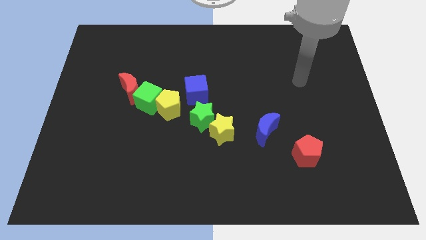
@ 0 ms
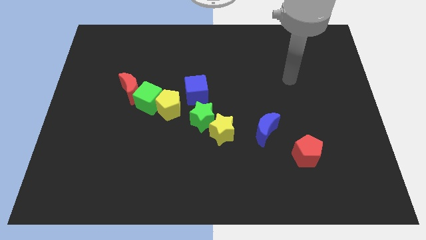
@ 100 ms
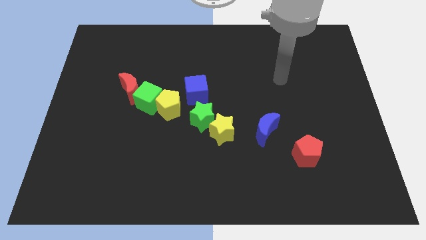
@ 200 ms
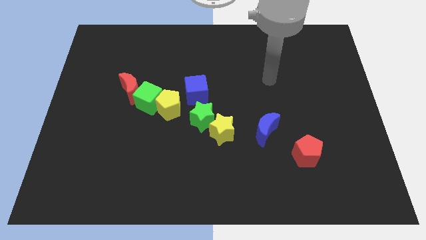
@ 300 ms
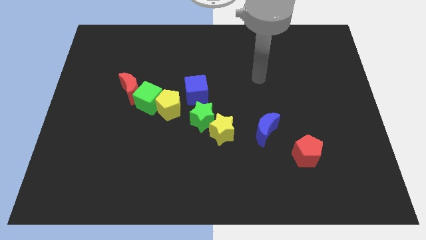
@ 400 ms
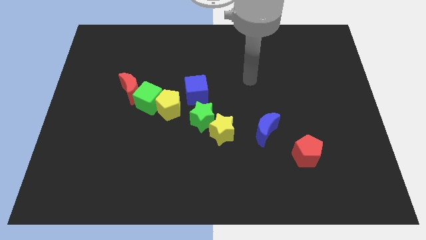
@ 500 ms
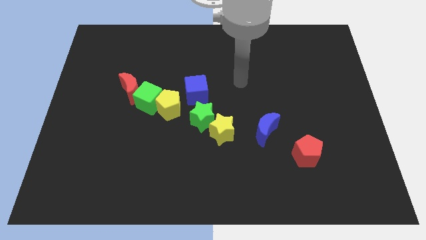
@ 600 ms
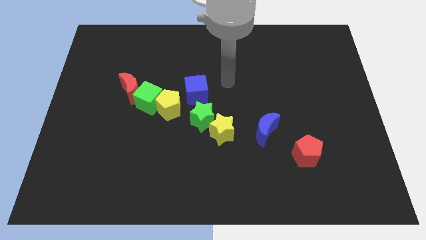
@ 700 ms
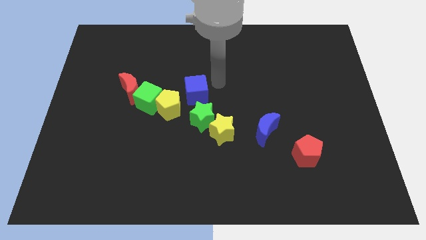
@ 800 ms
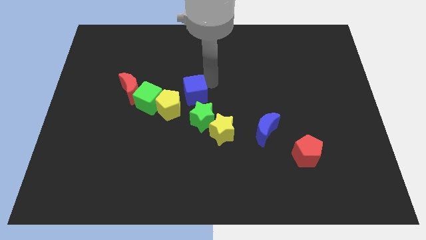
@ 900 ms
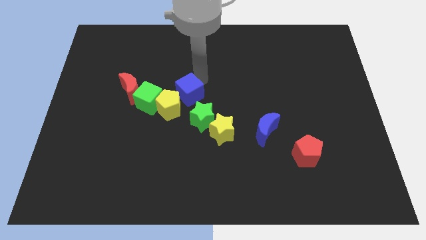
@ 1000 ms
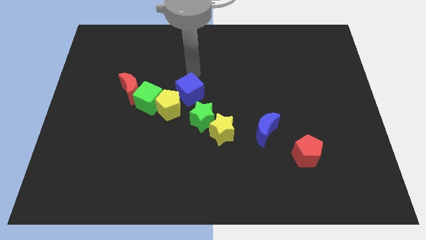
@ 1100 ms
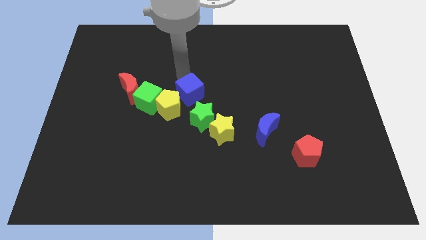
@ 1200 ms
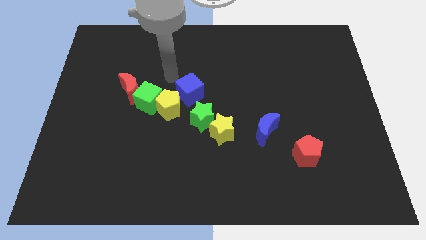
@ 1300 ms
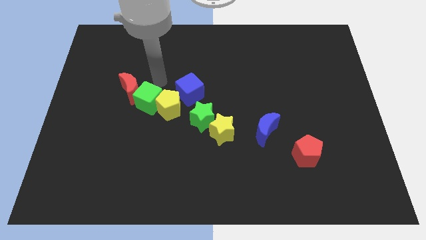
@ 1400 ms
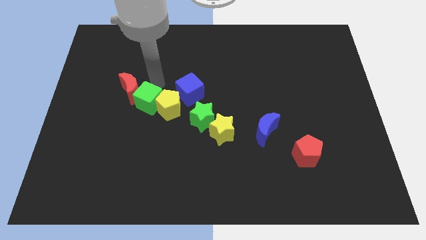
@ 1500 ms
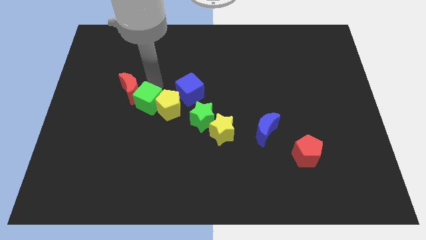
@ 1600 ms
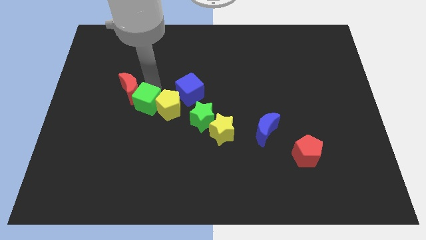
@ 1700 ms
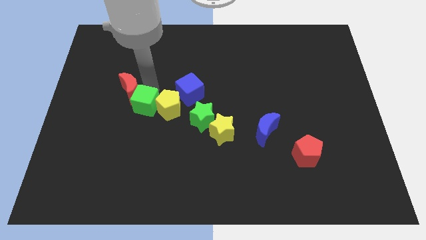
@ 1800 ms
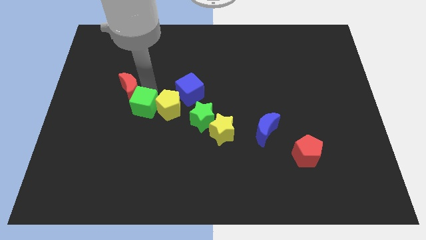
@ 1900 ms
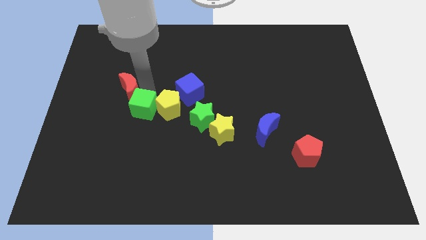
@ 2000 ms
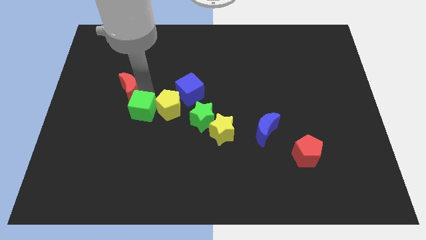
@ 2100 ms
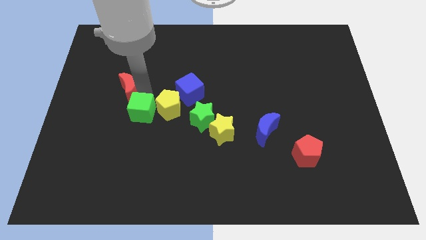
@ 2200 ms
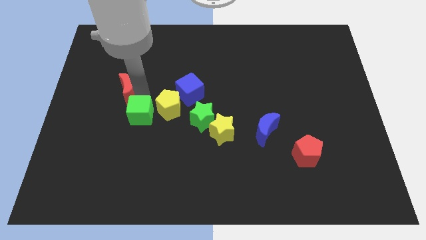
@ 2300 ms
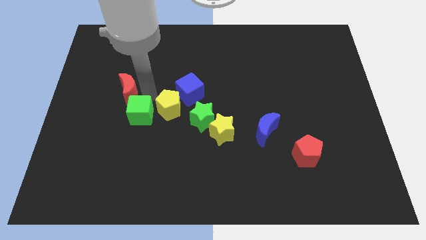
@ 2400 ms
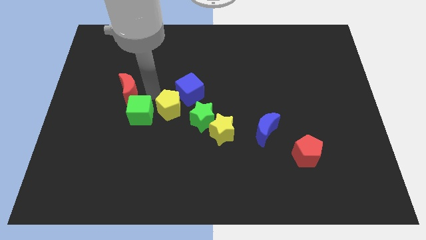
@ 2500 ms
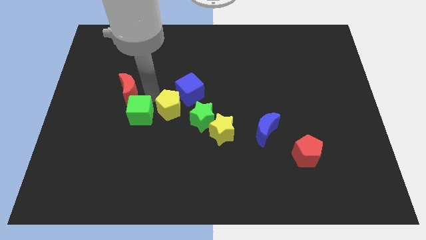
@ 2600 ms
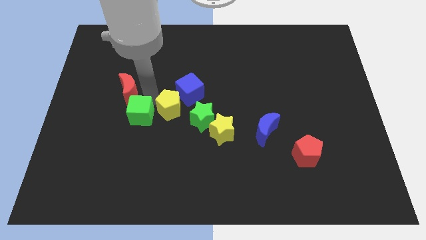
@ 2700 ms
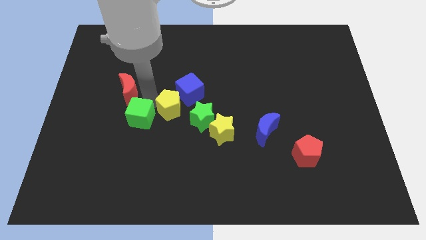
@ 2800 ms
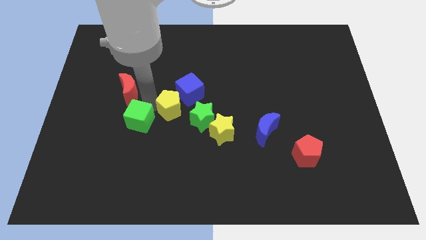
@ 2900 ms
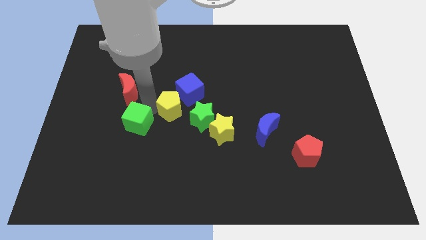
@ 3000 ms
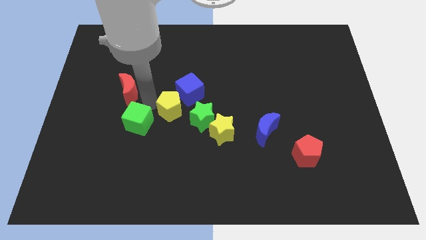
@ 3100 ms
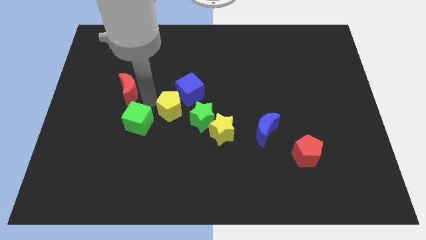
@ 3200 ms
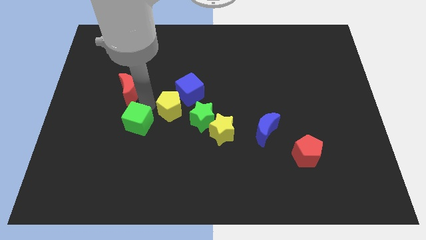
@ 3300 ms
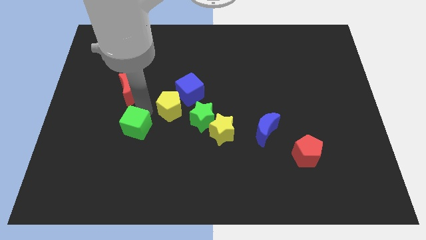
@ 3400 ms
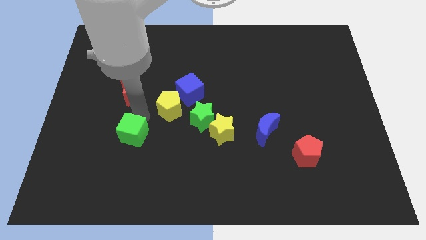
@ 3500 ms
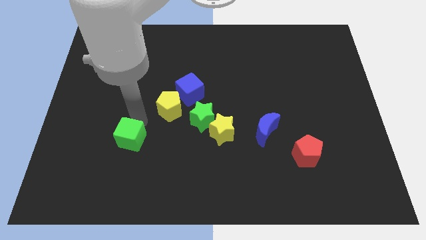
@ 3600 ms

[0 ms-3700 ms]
separate the green cube from the yellow pentagon and red moon

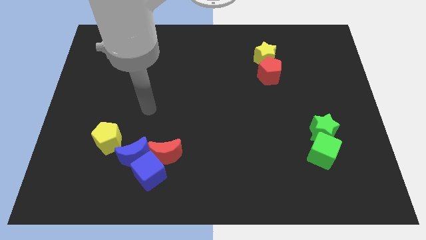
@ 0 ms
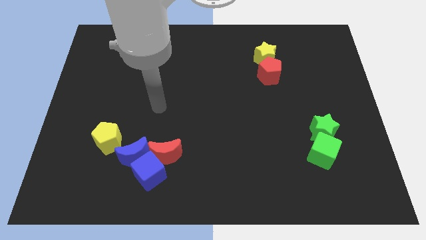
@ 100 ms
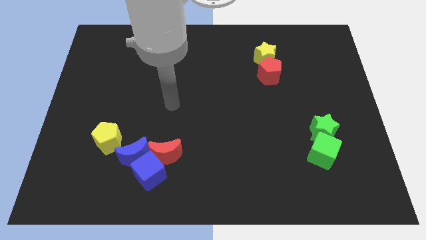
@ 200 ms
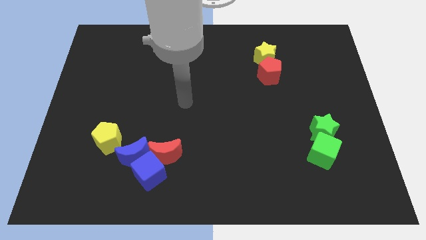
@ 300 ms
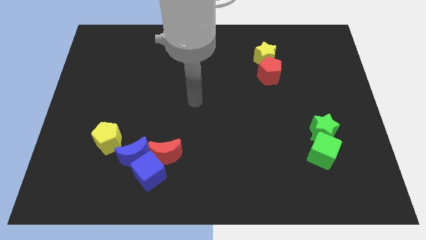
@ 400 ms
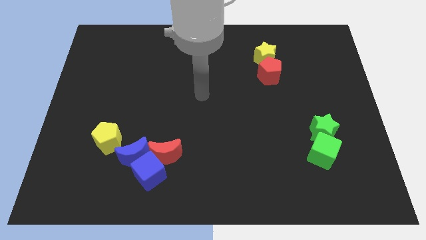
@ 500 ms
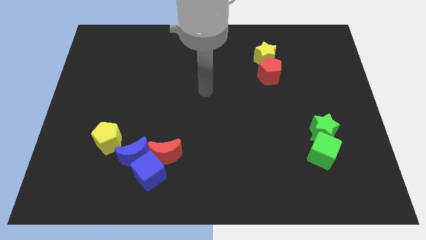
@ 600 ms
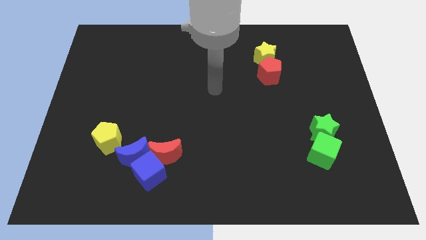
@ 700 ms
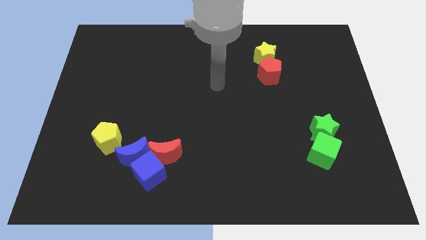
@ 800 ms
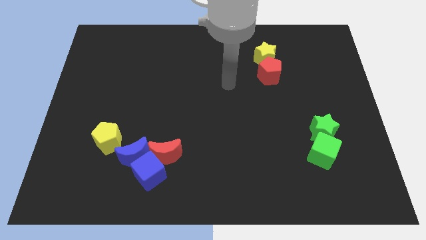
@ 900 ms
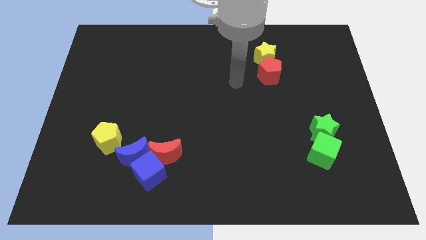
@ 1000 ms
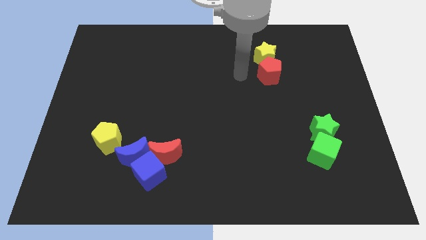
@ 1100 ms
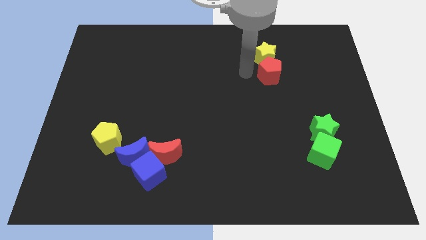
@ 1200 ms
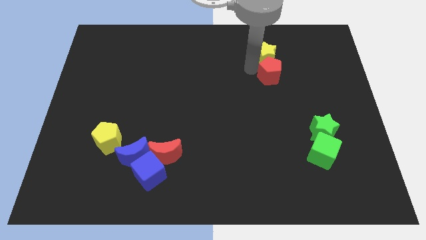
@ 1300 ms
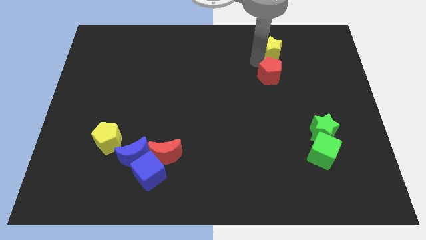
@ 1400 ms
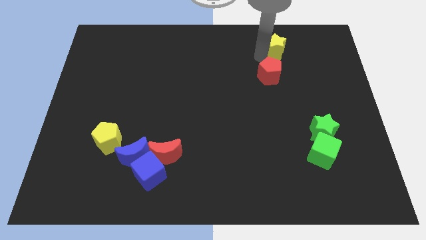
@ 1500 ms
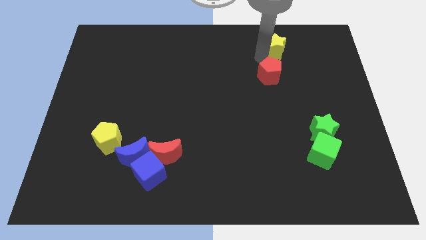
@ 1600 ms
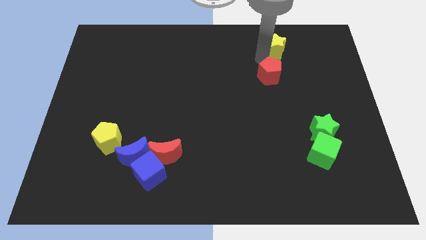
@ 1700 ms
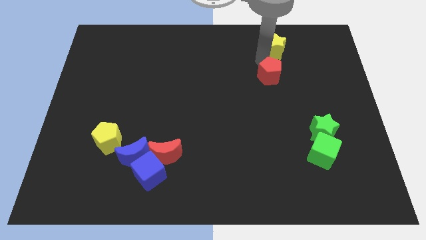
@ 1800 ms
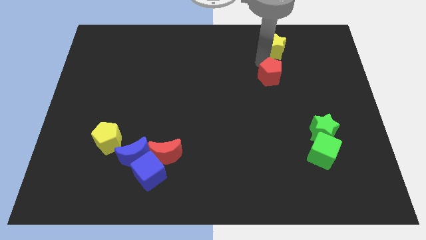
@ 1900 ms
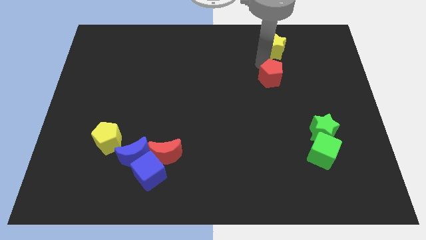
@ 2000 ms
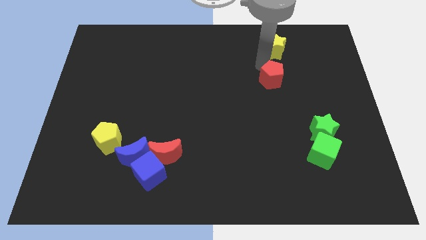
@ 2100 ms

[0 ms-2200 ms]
separate the red pentagon from the yellow star

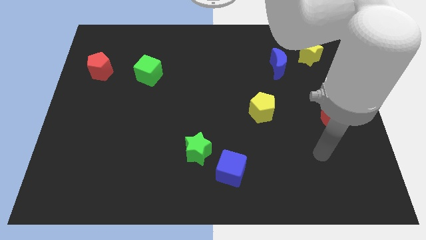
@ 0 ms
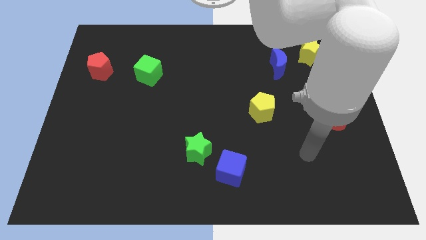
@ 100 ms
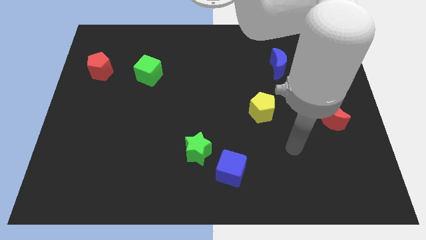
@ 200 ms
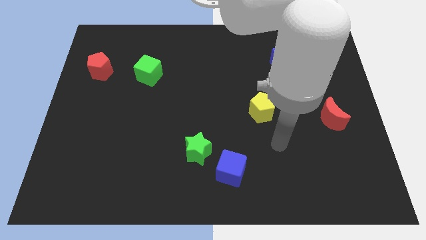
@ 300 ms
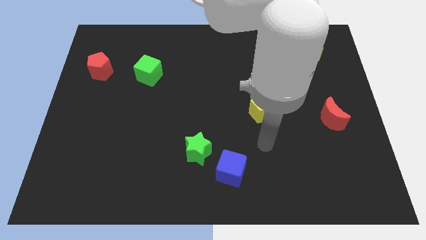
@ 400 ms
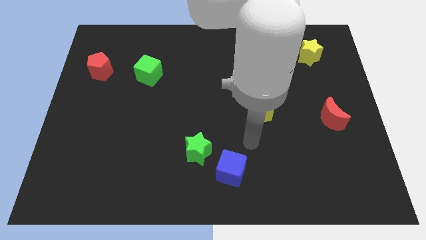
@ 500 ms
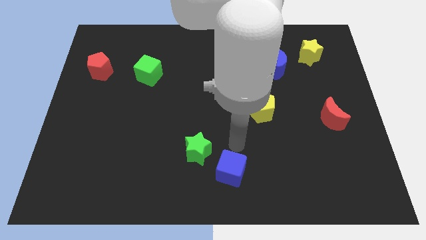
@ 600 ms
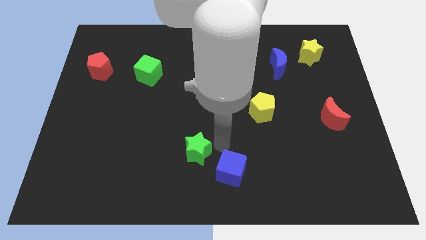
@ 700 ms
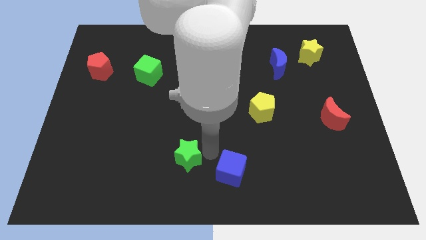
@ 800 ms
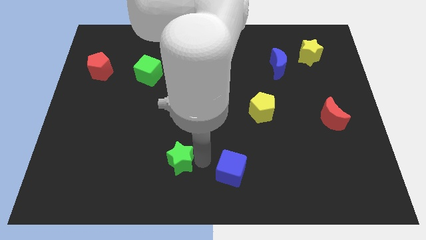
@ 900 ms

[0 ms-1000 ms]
separate the blue cube from the green star

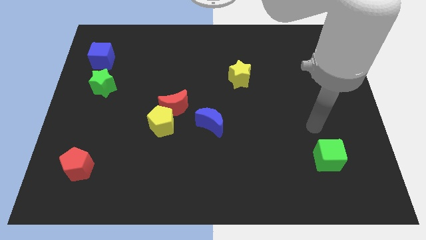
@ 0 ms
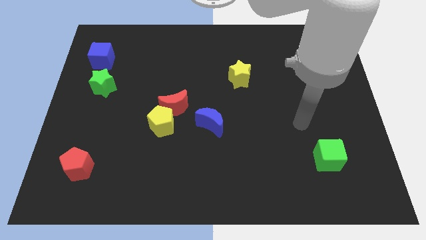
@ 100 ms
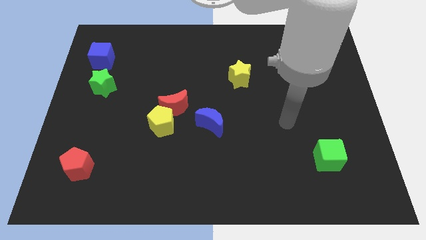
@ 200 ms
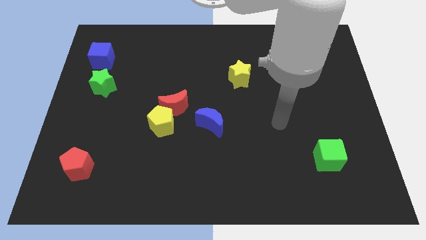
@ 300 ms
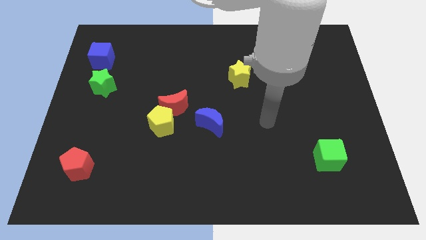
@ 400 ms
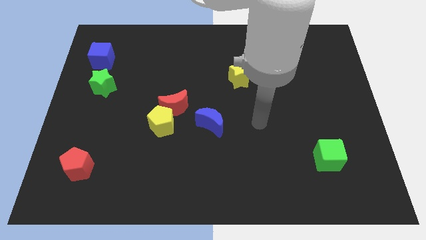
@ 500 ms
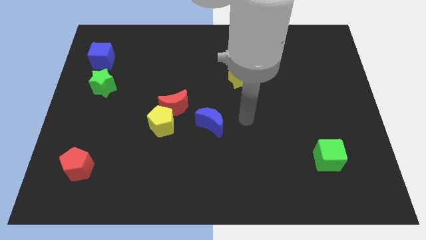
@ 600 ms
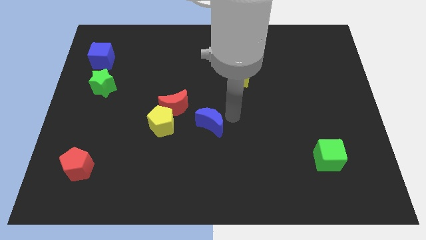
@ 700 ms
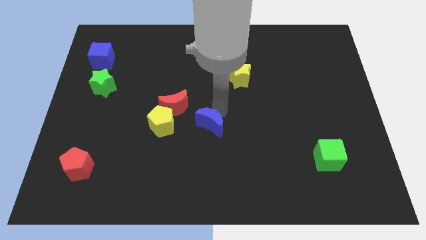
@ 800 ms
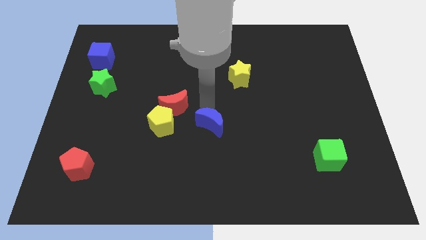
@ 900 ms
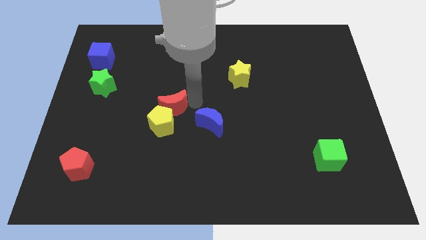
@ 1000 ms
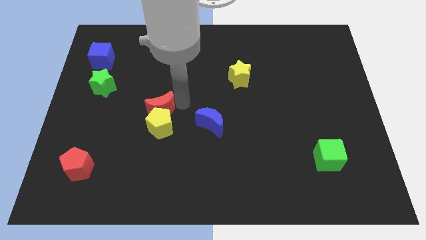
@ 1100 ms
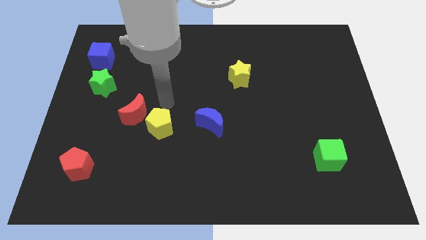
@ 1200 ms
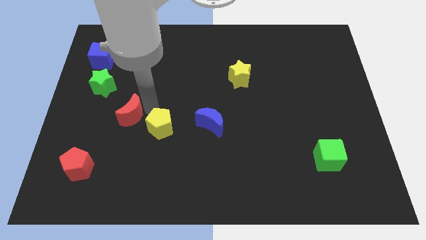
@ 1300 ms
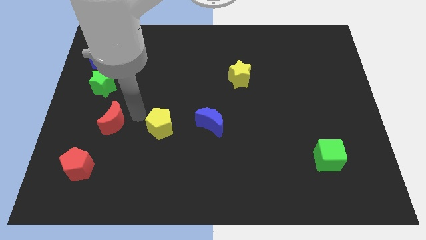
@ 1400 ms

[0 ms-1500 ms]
move the yellow pentagon away from the red moon

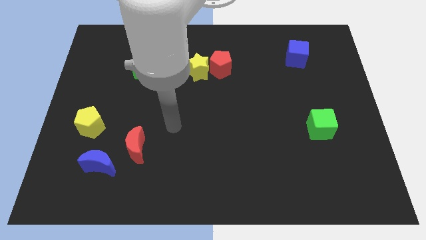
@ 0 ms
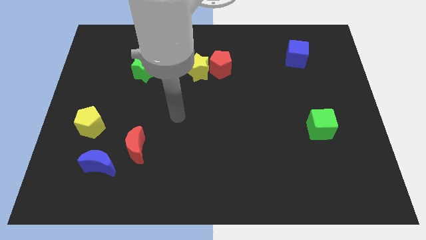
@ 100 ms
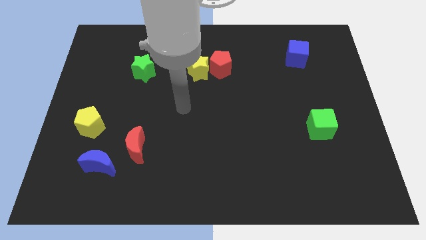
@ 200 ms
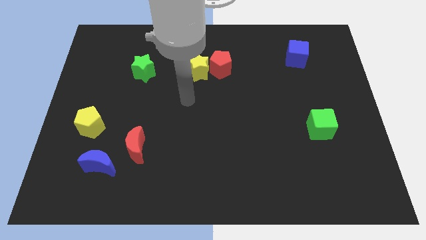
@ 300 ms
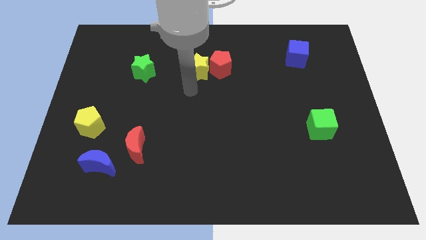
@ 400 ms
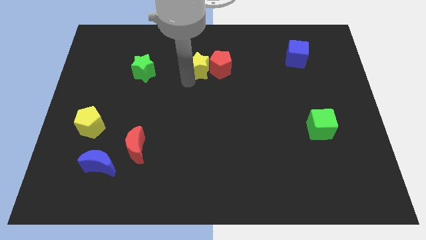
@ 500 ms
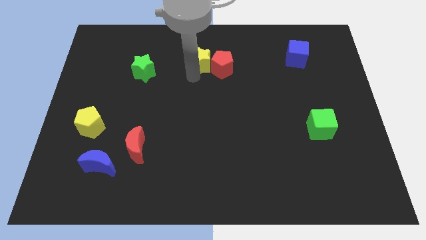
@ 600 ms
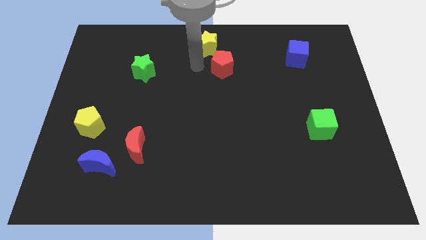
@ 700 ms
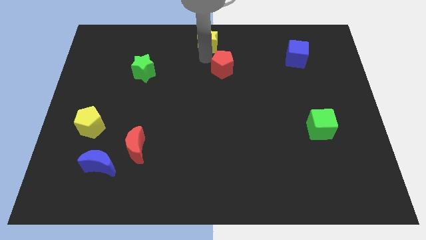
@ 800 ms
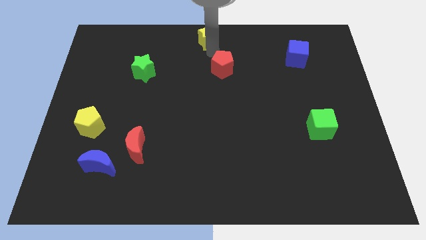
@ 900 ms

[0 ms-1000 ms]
pull the red pentagon apart from the yellow star

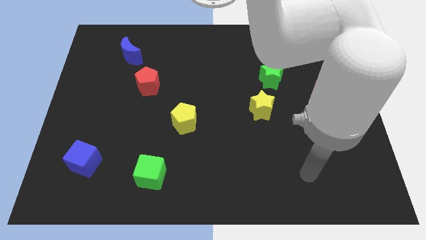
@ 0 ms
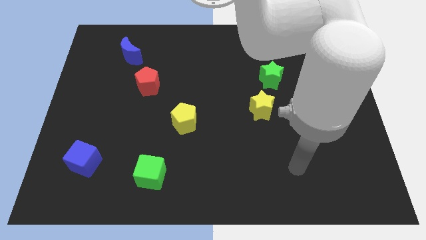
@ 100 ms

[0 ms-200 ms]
pull the green star apart from the yellow star
